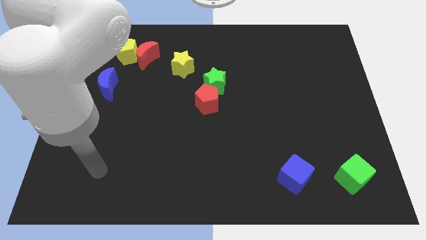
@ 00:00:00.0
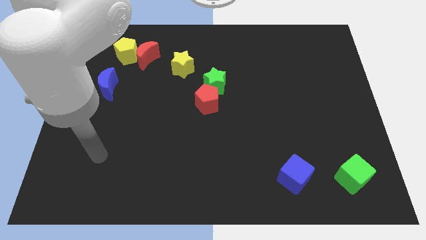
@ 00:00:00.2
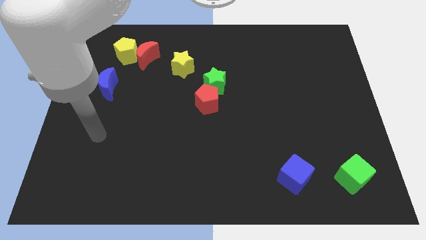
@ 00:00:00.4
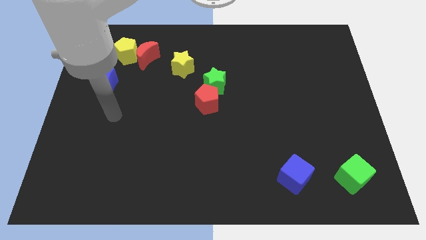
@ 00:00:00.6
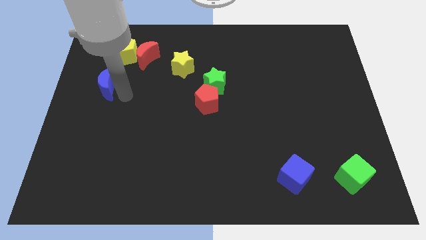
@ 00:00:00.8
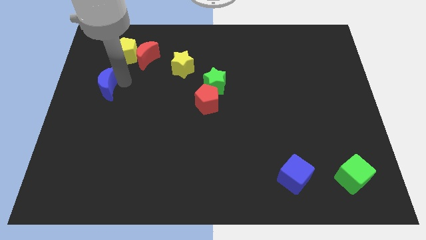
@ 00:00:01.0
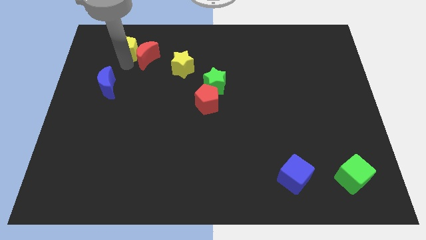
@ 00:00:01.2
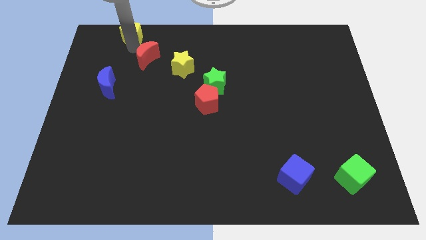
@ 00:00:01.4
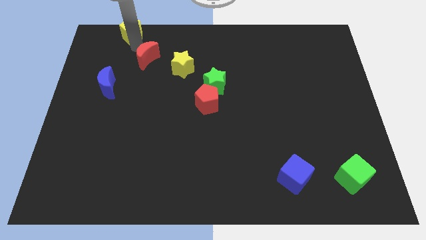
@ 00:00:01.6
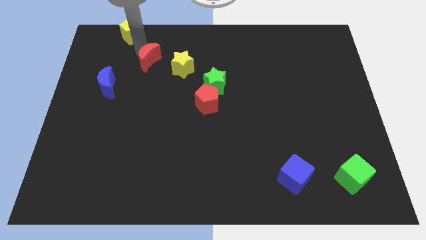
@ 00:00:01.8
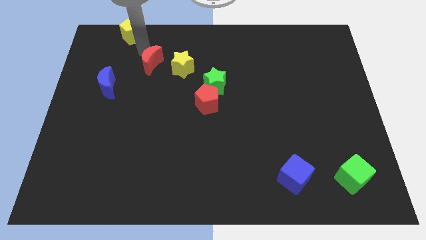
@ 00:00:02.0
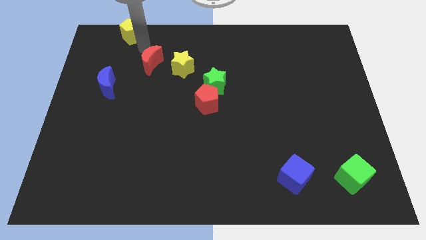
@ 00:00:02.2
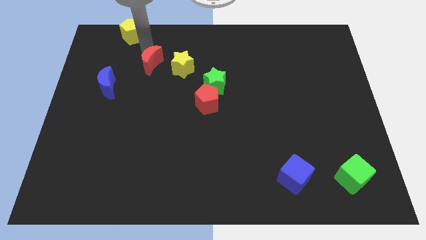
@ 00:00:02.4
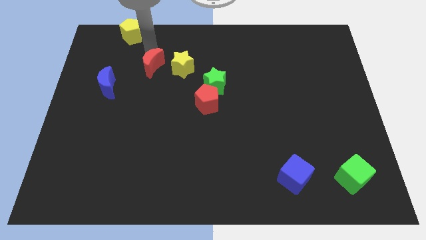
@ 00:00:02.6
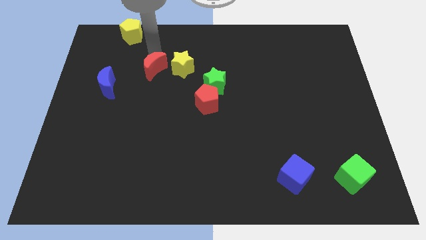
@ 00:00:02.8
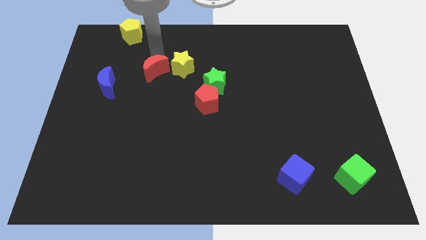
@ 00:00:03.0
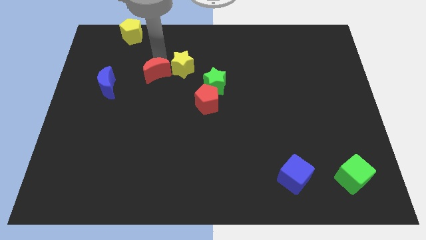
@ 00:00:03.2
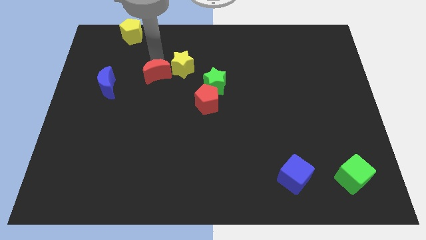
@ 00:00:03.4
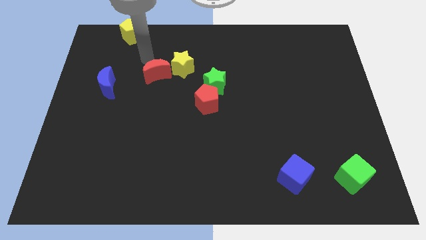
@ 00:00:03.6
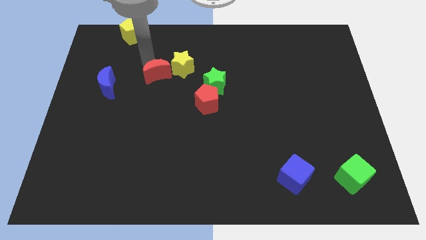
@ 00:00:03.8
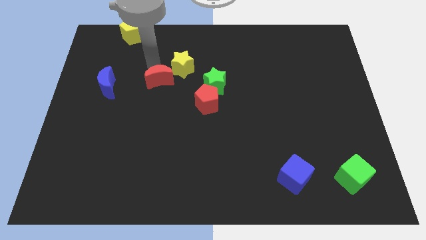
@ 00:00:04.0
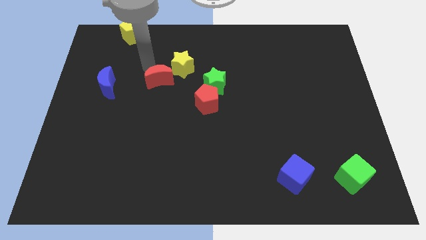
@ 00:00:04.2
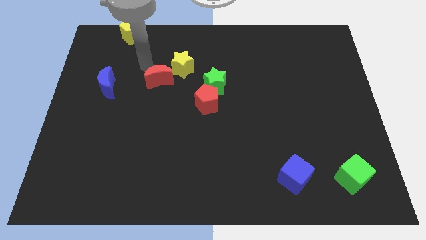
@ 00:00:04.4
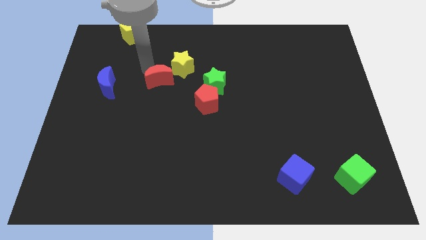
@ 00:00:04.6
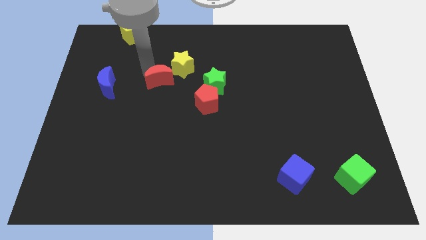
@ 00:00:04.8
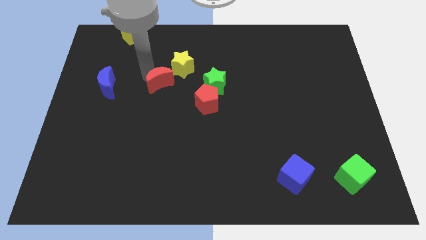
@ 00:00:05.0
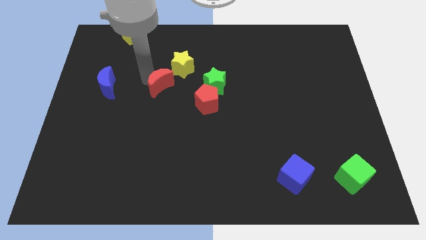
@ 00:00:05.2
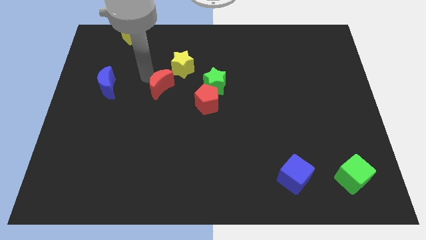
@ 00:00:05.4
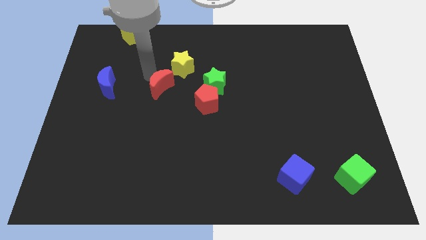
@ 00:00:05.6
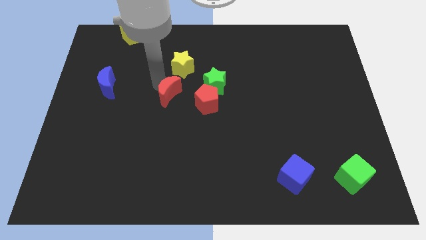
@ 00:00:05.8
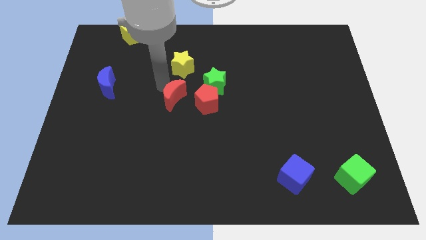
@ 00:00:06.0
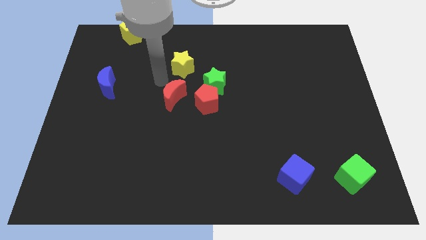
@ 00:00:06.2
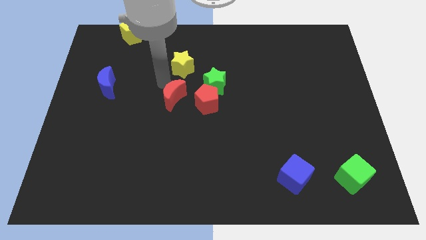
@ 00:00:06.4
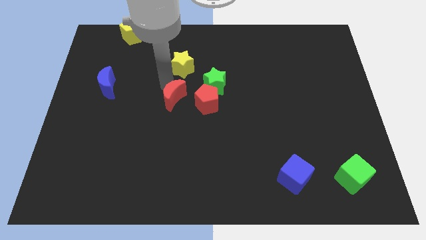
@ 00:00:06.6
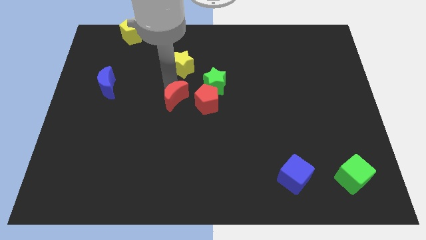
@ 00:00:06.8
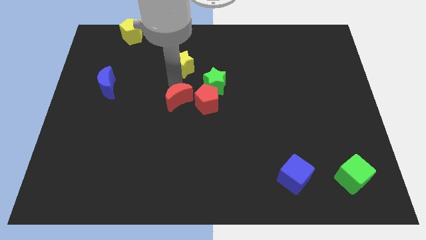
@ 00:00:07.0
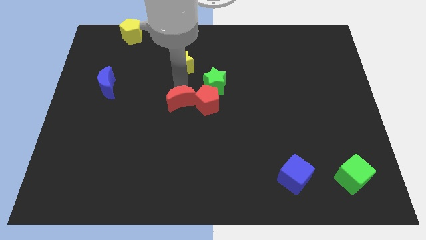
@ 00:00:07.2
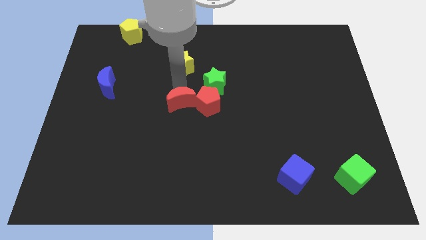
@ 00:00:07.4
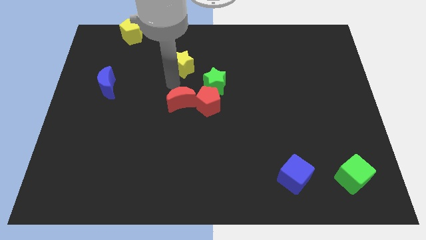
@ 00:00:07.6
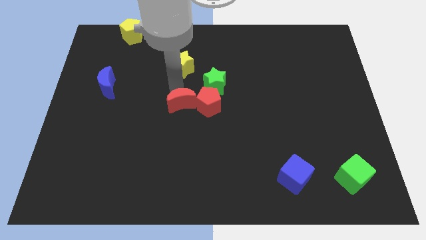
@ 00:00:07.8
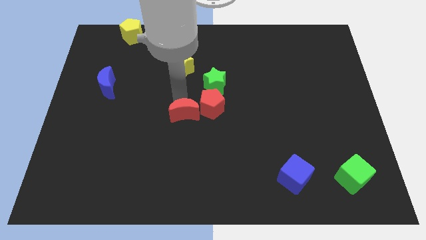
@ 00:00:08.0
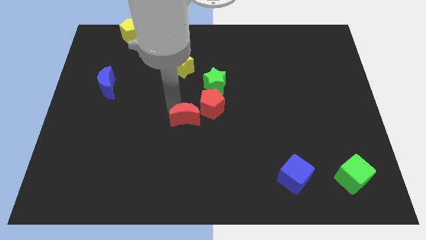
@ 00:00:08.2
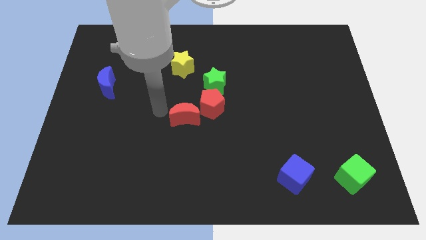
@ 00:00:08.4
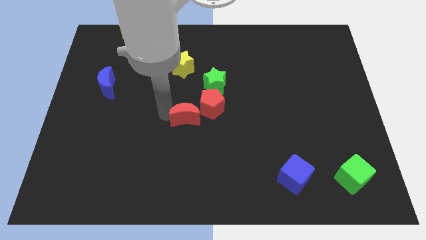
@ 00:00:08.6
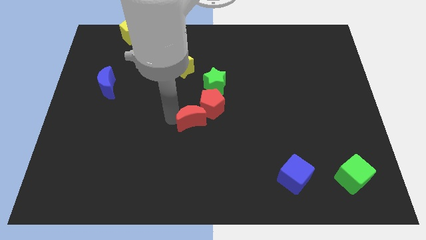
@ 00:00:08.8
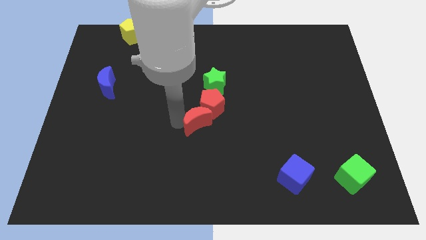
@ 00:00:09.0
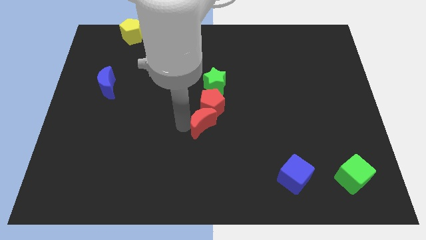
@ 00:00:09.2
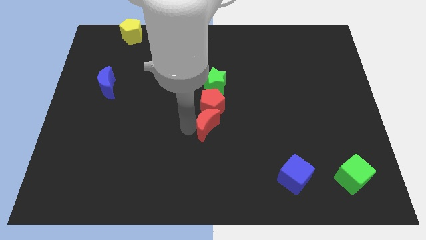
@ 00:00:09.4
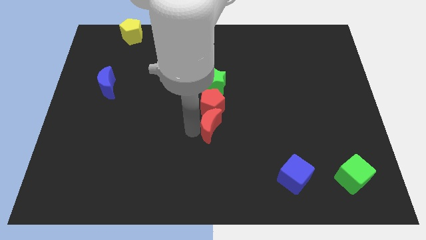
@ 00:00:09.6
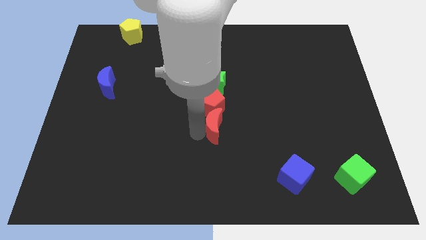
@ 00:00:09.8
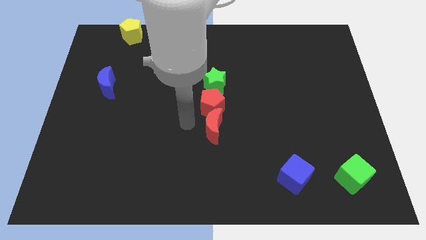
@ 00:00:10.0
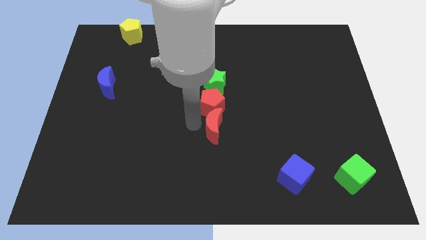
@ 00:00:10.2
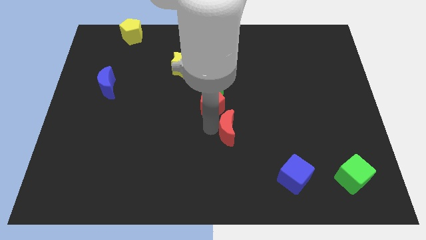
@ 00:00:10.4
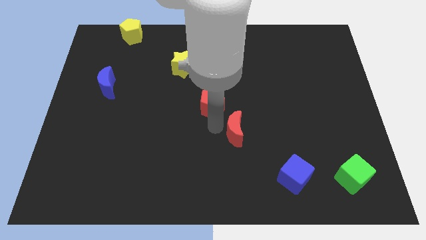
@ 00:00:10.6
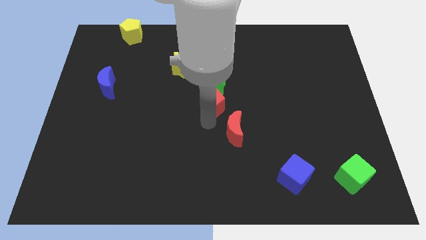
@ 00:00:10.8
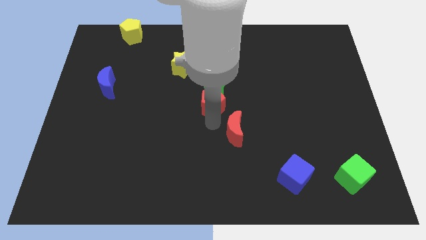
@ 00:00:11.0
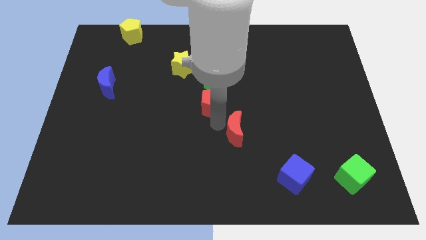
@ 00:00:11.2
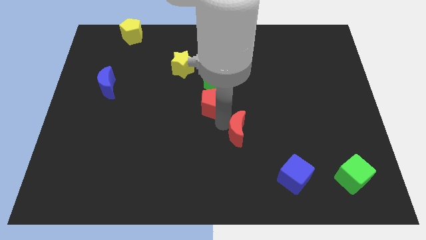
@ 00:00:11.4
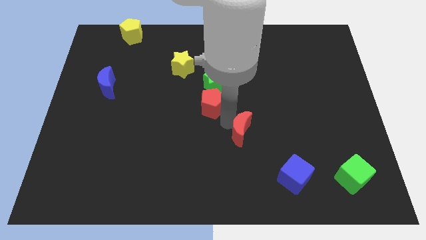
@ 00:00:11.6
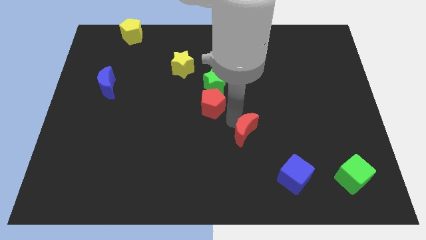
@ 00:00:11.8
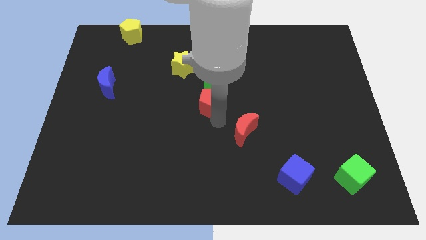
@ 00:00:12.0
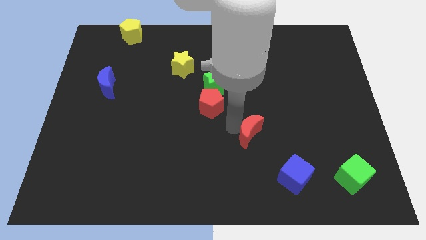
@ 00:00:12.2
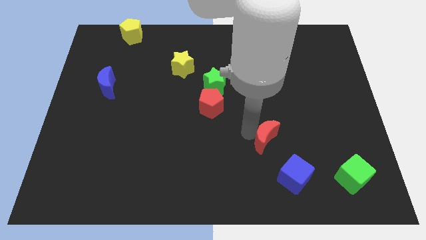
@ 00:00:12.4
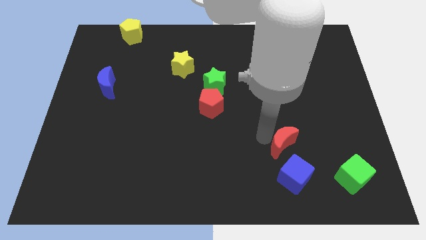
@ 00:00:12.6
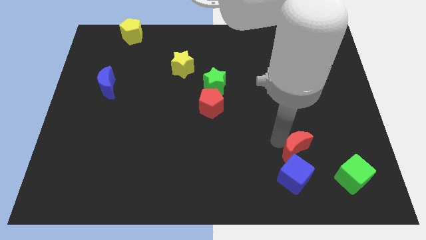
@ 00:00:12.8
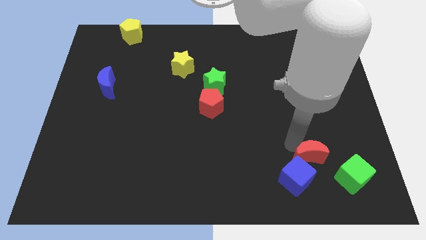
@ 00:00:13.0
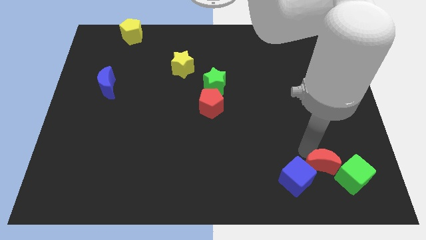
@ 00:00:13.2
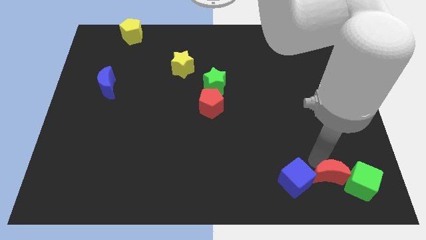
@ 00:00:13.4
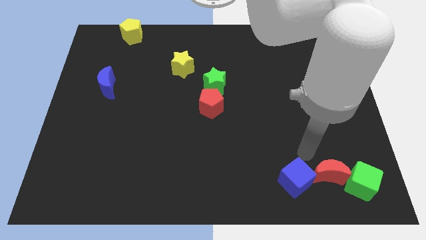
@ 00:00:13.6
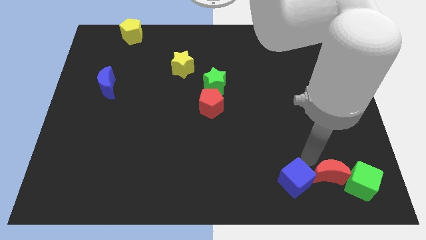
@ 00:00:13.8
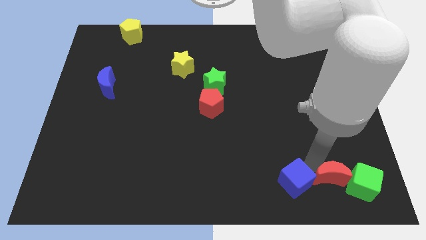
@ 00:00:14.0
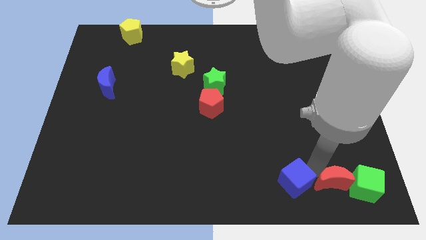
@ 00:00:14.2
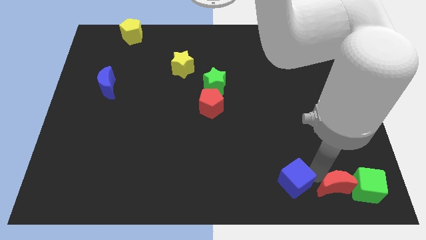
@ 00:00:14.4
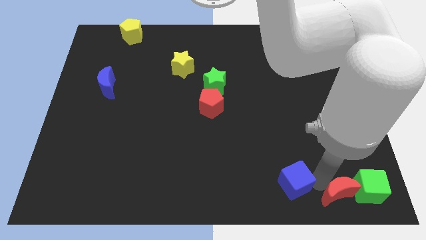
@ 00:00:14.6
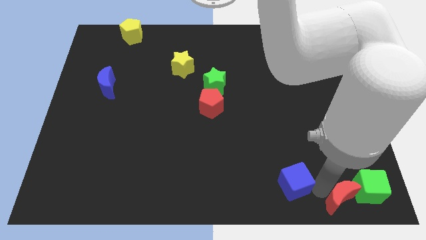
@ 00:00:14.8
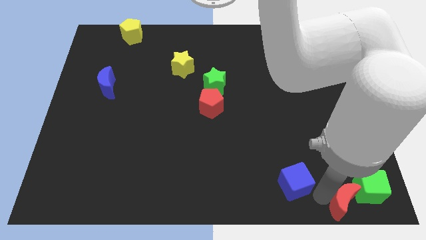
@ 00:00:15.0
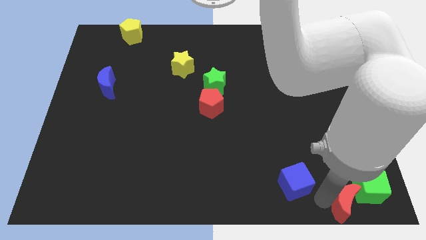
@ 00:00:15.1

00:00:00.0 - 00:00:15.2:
slide the red moon to the bottom right of the board
